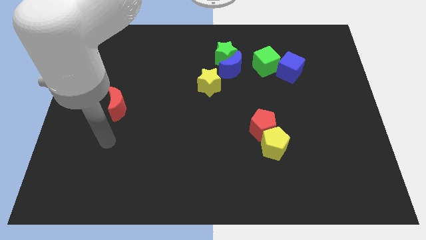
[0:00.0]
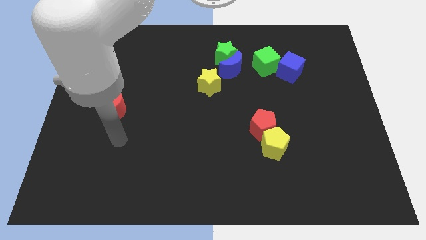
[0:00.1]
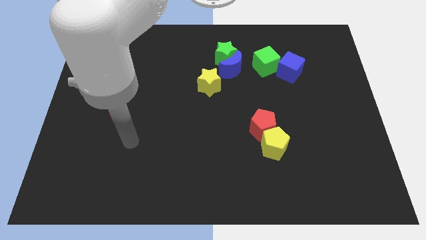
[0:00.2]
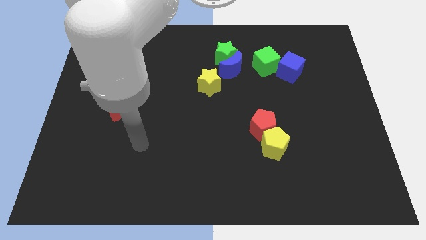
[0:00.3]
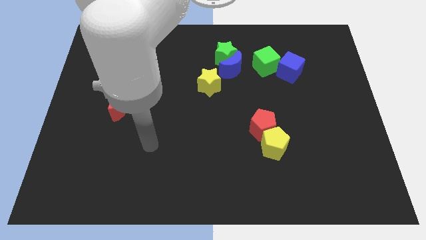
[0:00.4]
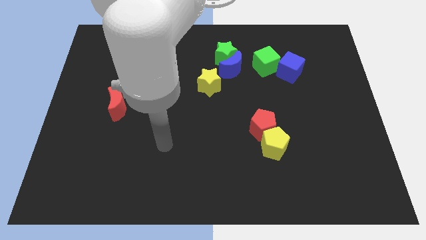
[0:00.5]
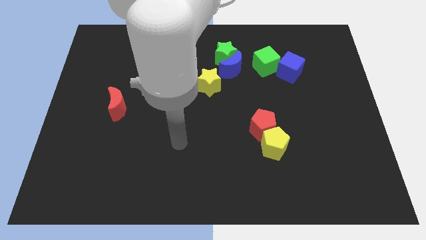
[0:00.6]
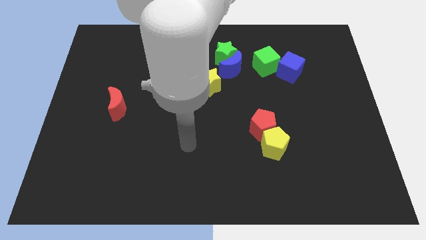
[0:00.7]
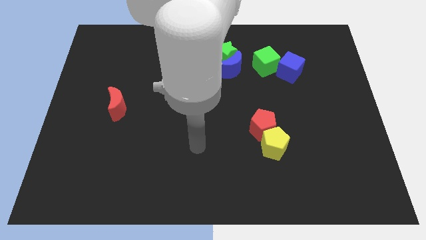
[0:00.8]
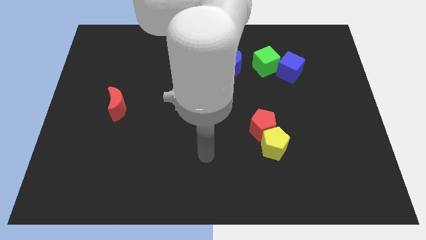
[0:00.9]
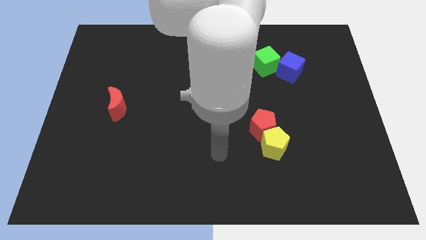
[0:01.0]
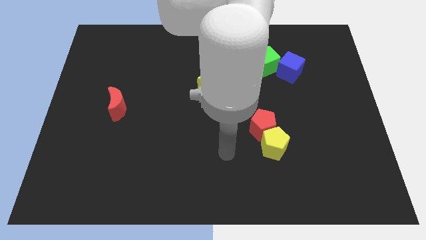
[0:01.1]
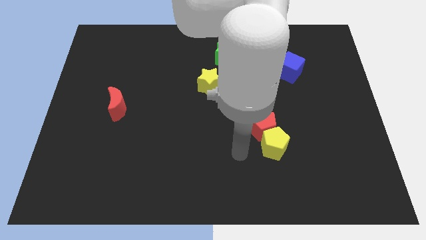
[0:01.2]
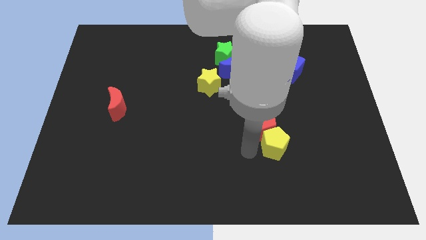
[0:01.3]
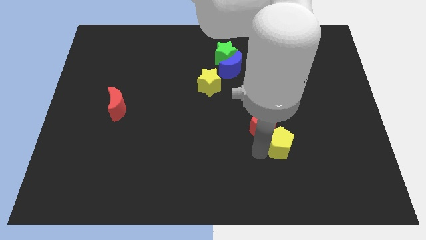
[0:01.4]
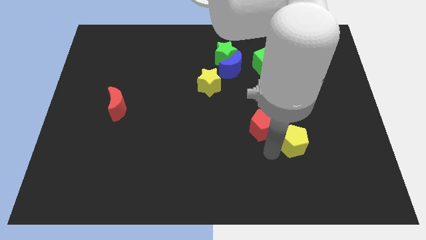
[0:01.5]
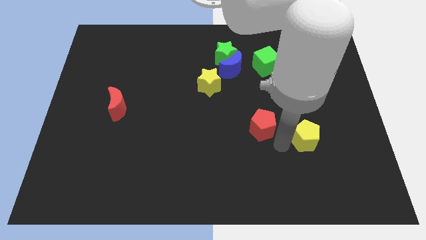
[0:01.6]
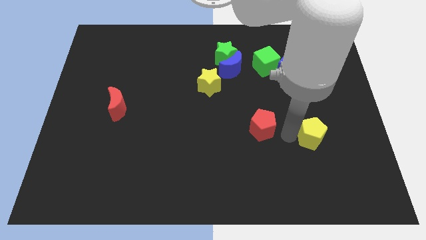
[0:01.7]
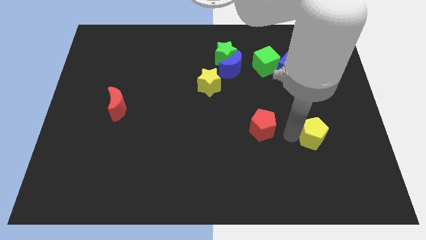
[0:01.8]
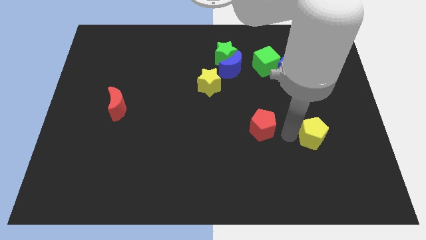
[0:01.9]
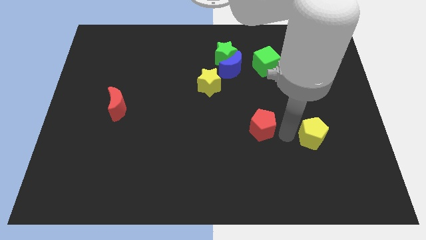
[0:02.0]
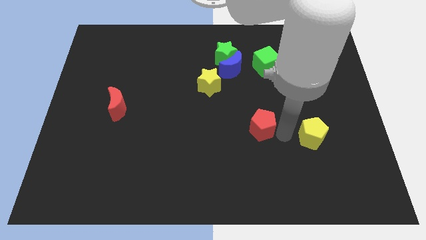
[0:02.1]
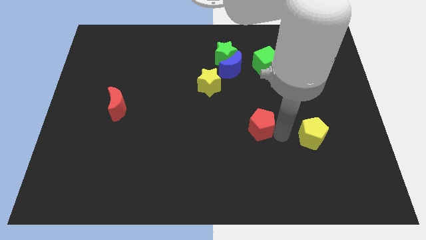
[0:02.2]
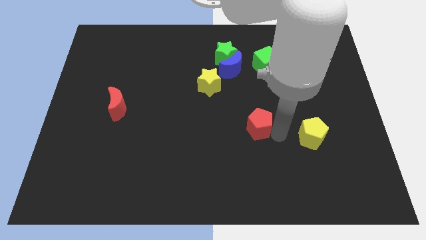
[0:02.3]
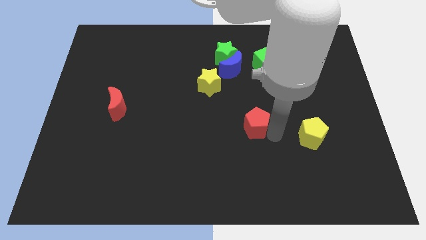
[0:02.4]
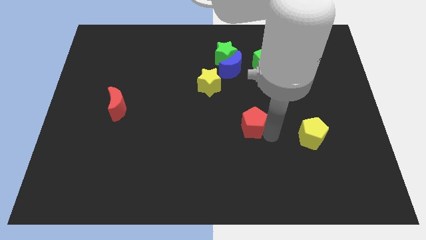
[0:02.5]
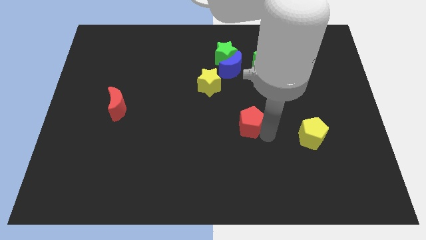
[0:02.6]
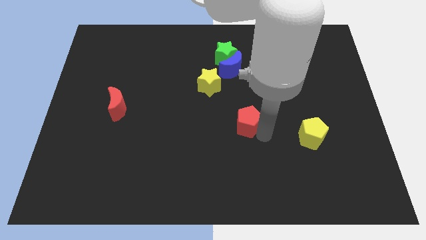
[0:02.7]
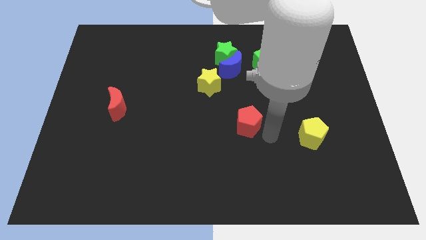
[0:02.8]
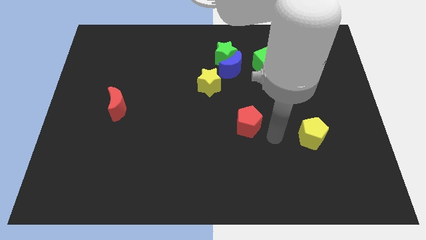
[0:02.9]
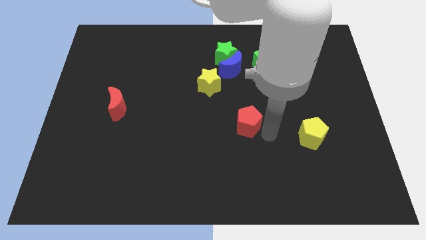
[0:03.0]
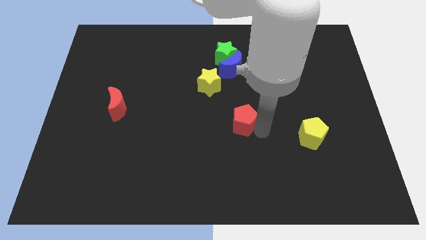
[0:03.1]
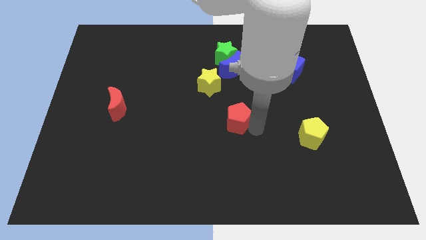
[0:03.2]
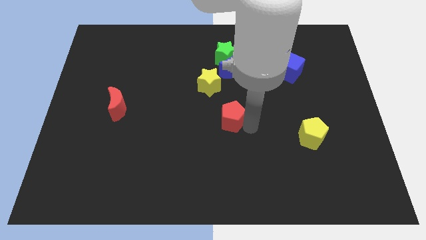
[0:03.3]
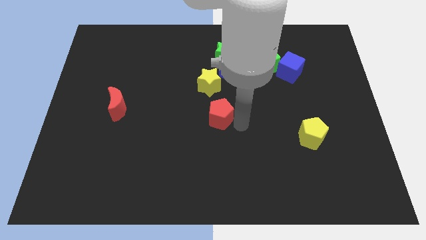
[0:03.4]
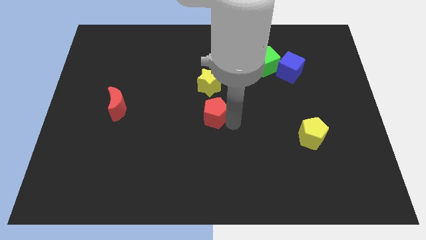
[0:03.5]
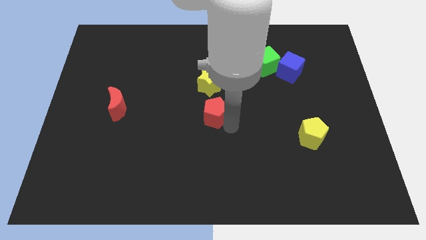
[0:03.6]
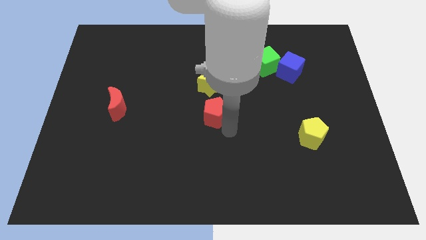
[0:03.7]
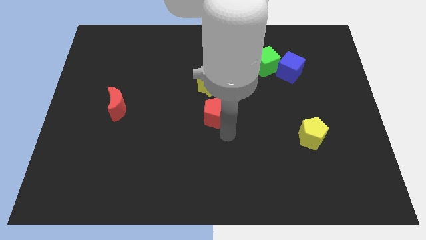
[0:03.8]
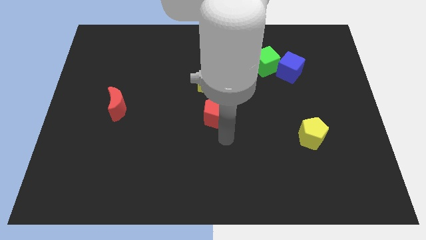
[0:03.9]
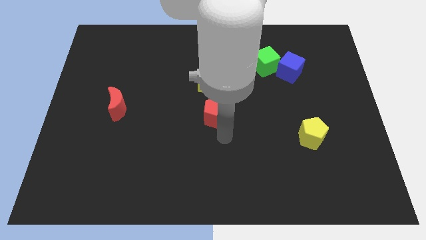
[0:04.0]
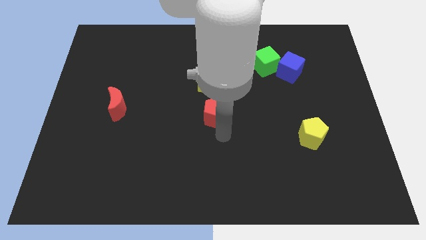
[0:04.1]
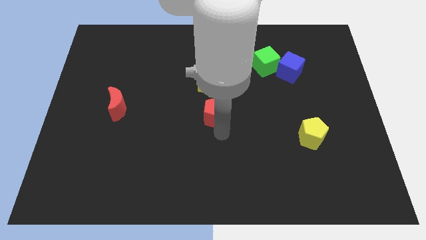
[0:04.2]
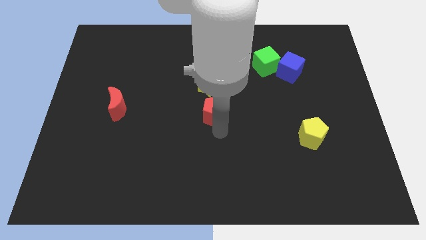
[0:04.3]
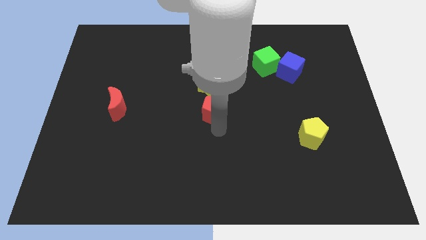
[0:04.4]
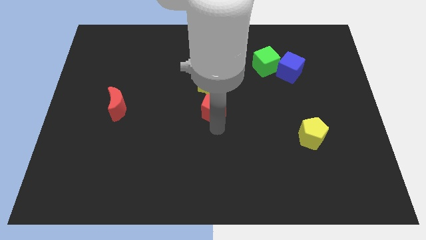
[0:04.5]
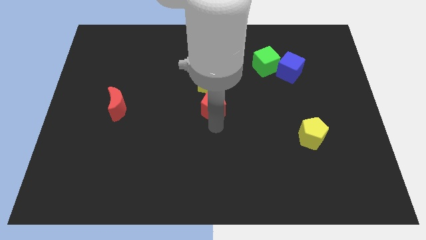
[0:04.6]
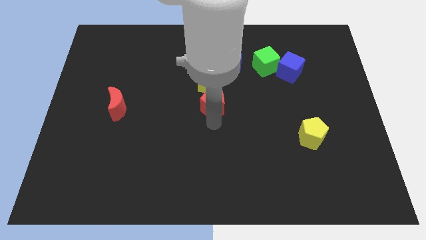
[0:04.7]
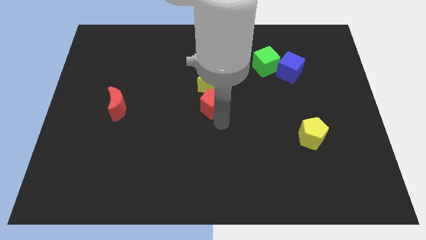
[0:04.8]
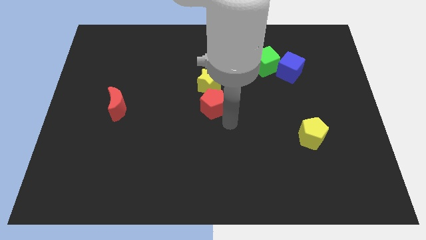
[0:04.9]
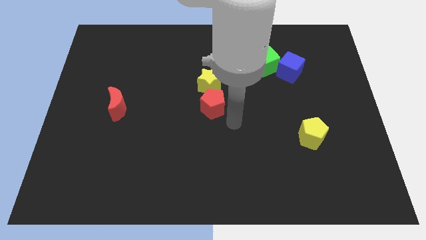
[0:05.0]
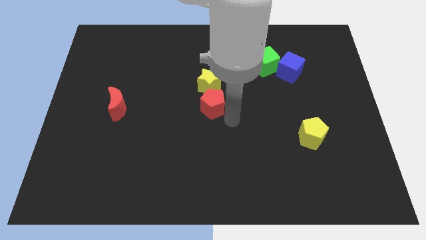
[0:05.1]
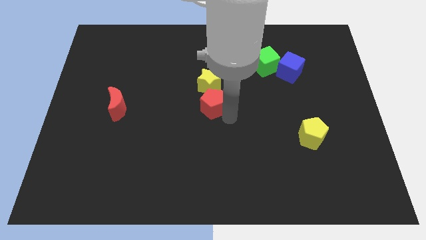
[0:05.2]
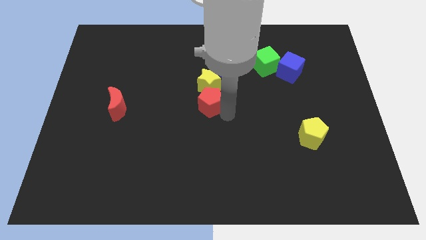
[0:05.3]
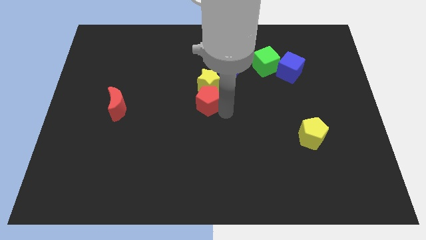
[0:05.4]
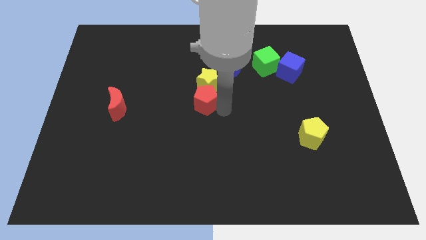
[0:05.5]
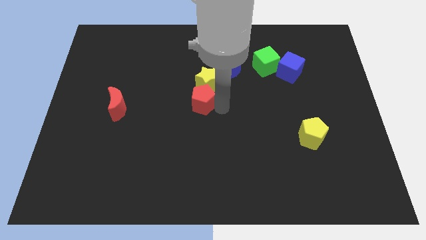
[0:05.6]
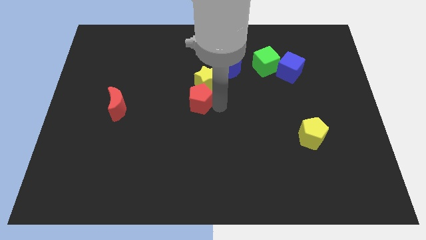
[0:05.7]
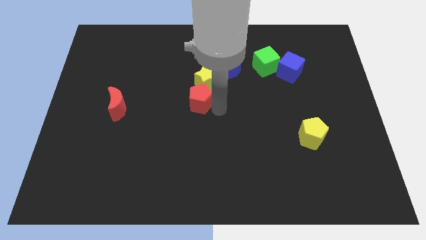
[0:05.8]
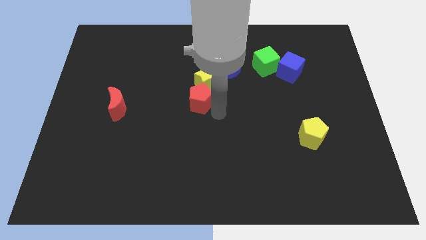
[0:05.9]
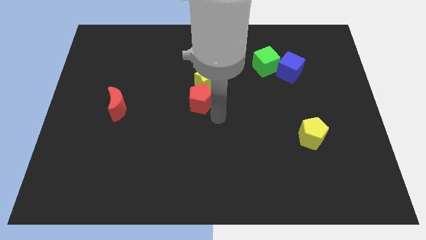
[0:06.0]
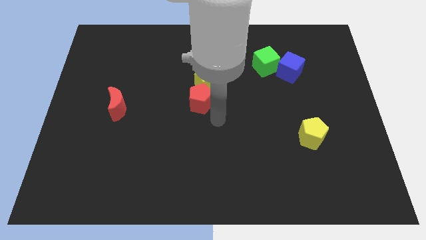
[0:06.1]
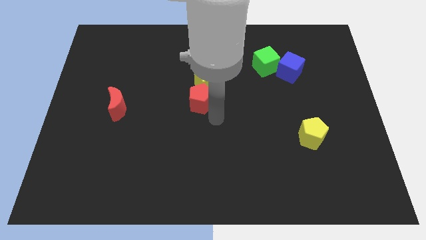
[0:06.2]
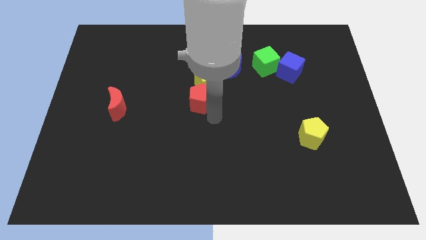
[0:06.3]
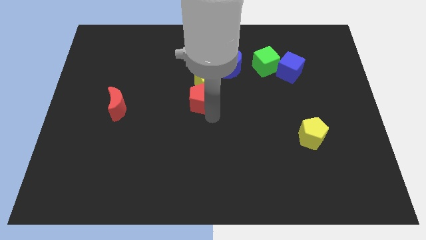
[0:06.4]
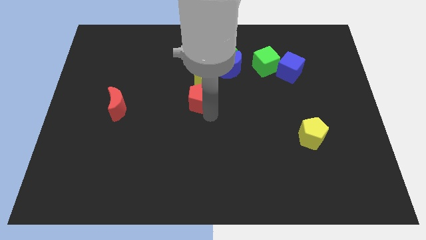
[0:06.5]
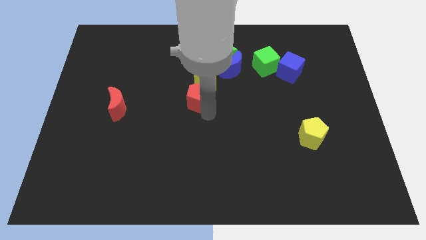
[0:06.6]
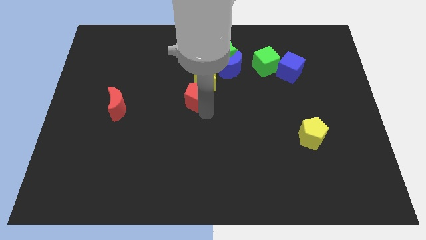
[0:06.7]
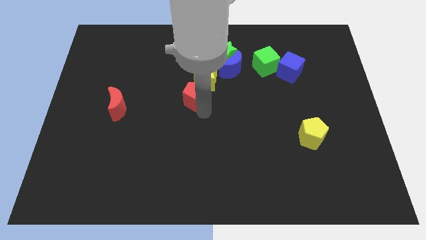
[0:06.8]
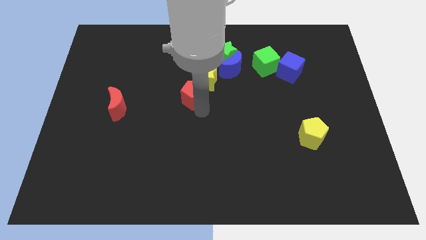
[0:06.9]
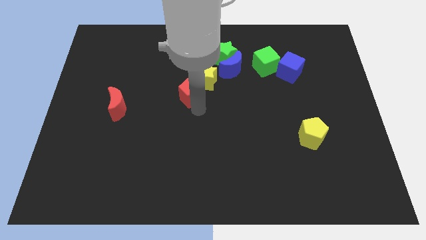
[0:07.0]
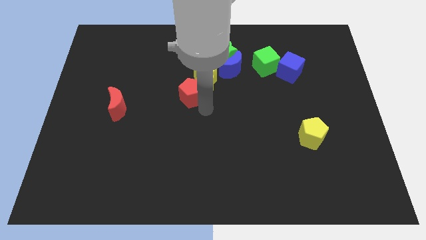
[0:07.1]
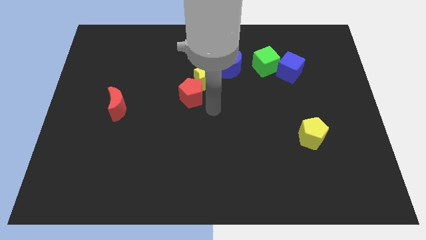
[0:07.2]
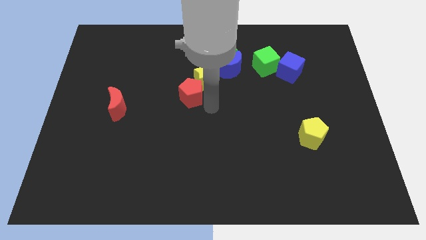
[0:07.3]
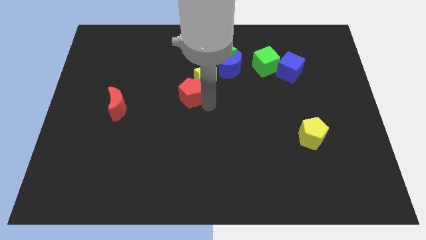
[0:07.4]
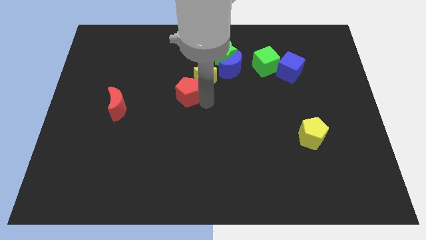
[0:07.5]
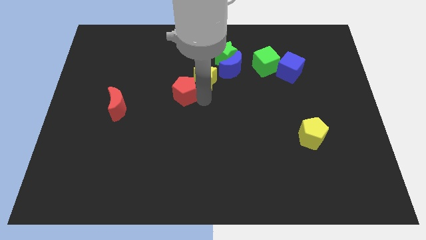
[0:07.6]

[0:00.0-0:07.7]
push the red pentagon to the left side of the yellow star

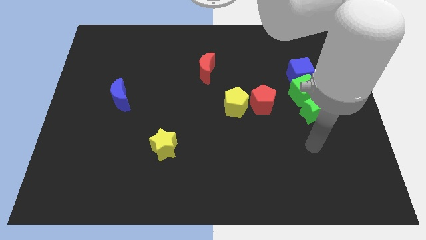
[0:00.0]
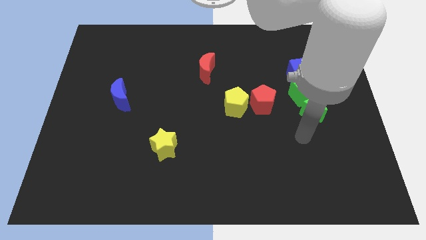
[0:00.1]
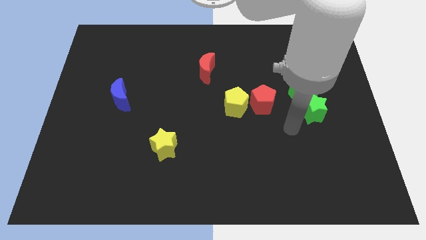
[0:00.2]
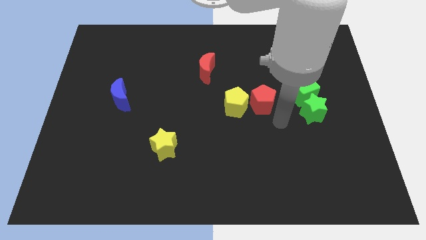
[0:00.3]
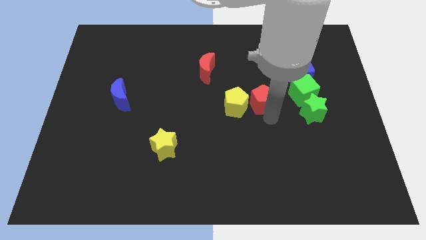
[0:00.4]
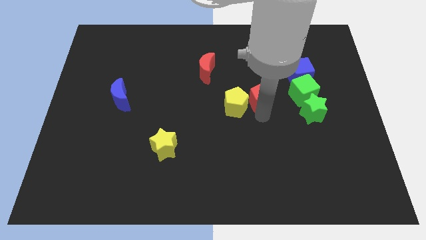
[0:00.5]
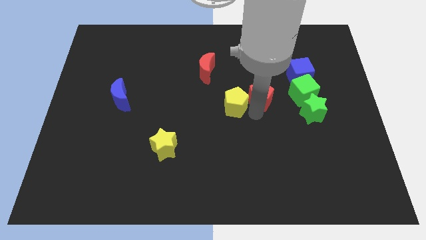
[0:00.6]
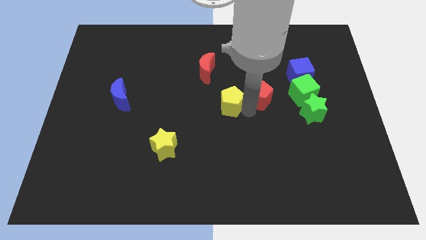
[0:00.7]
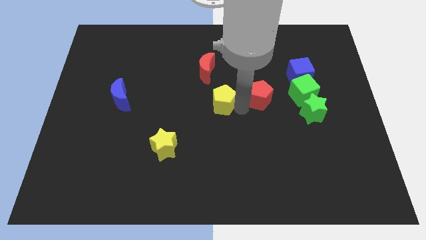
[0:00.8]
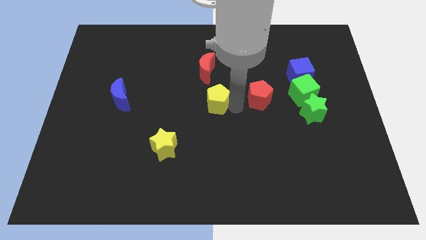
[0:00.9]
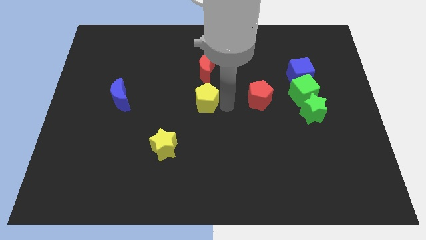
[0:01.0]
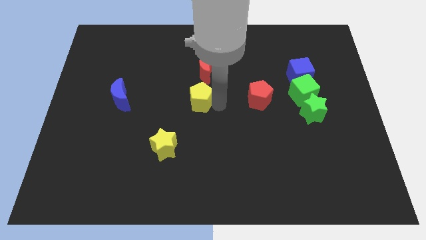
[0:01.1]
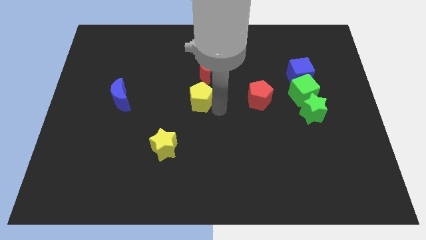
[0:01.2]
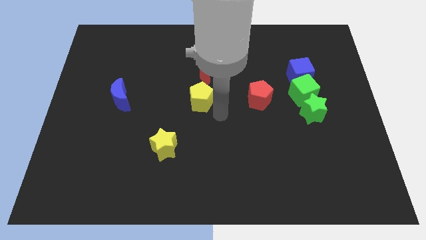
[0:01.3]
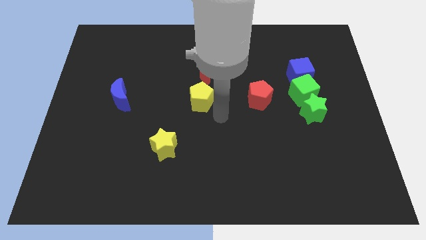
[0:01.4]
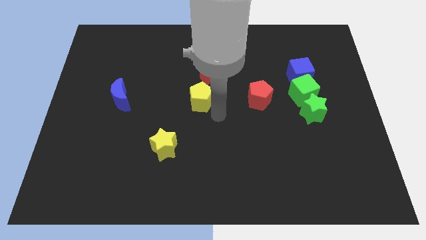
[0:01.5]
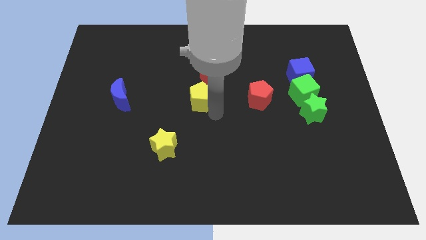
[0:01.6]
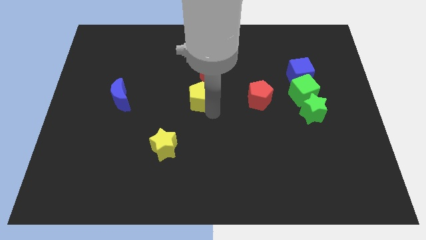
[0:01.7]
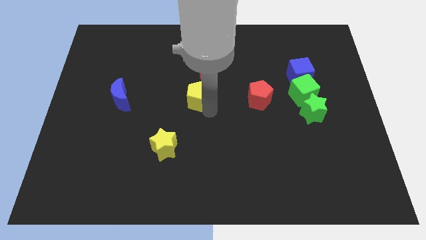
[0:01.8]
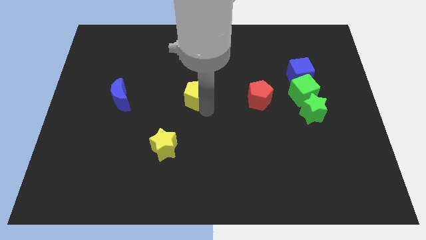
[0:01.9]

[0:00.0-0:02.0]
move the yellow pentagon to the bottom left side of the red moon
